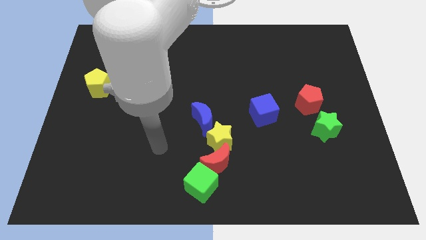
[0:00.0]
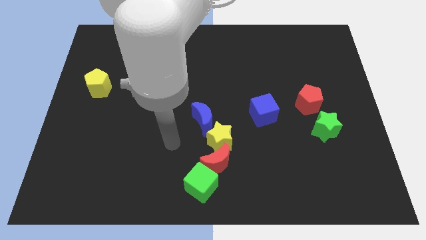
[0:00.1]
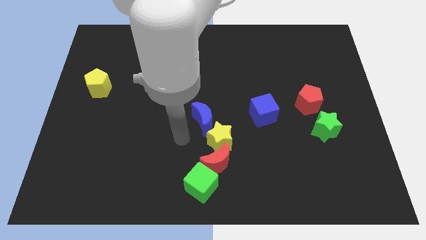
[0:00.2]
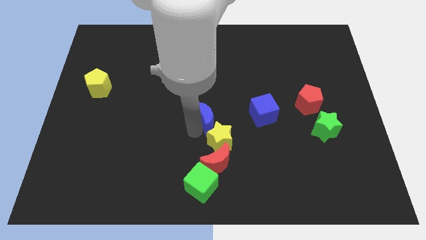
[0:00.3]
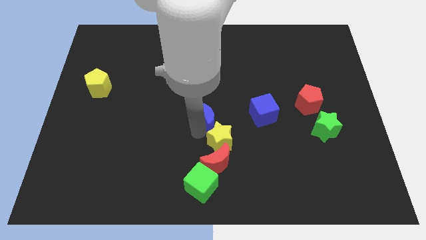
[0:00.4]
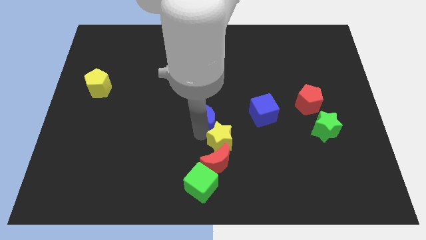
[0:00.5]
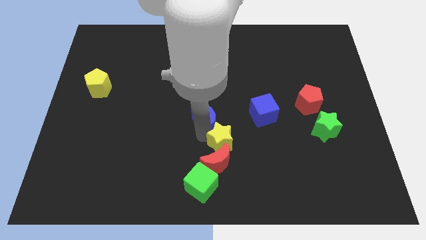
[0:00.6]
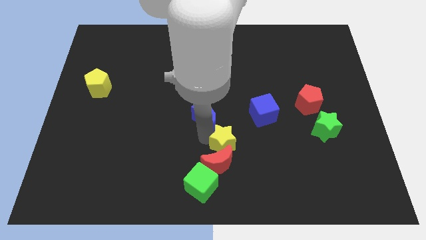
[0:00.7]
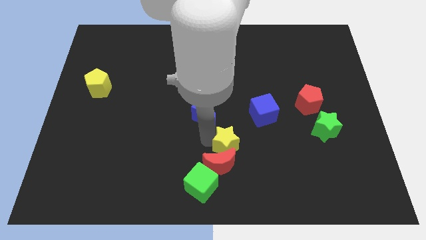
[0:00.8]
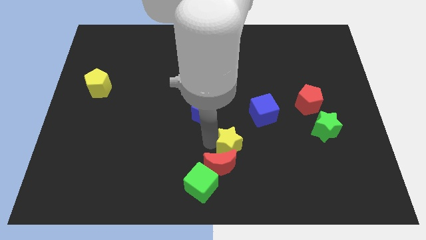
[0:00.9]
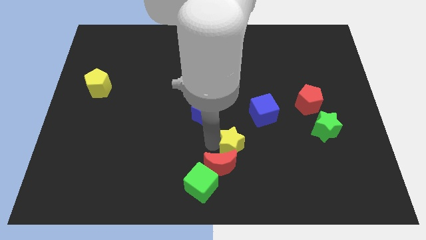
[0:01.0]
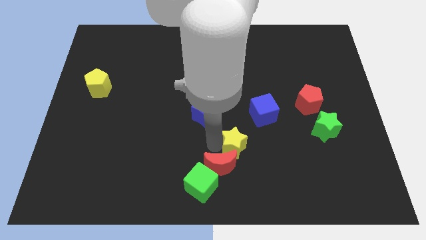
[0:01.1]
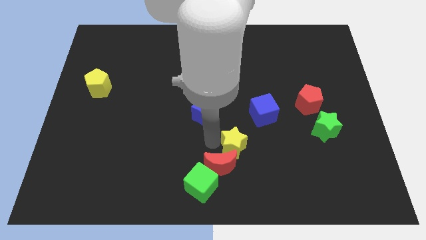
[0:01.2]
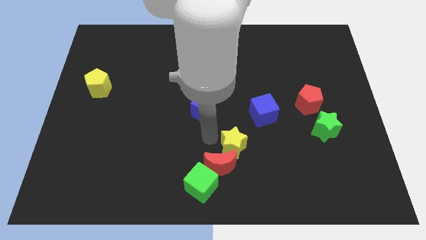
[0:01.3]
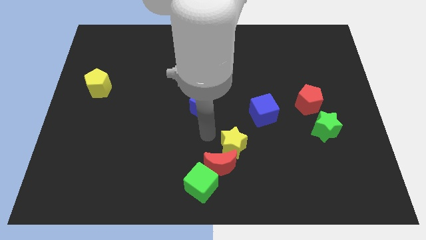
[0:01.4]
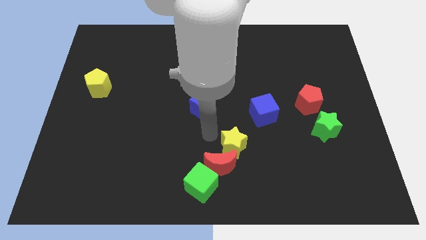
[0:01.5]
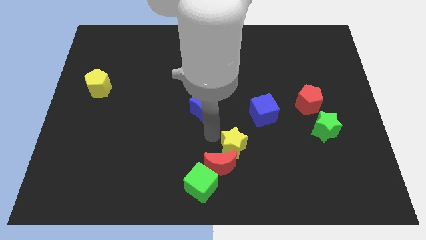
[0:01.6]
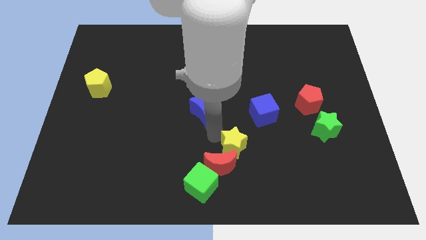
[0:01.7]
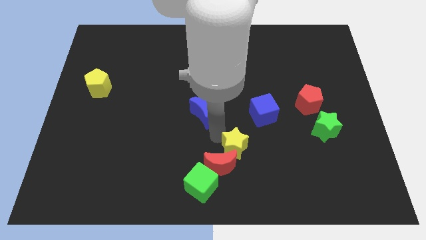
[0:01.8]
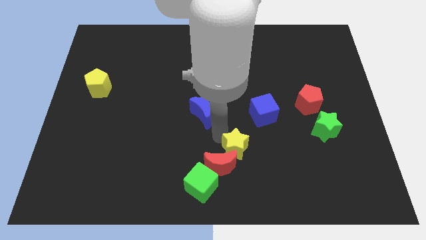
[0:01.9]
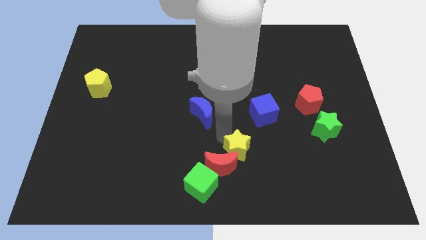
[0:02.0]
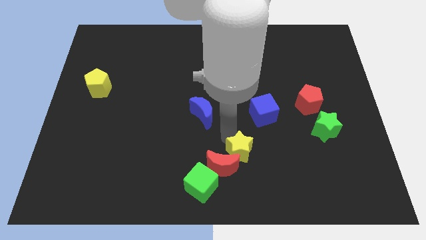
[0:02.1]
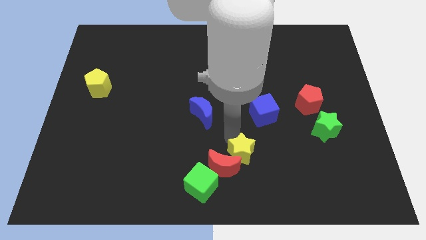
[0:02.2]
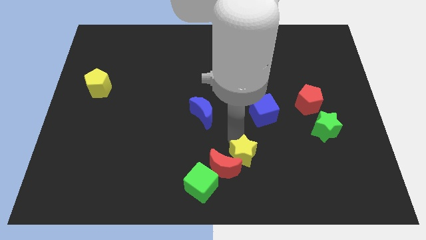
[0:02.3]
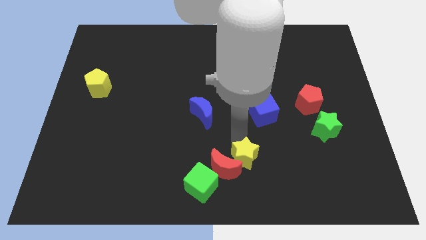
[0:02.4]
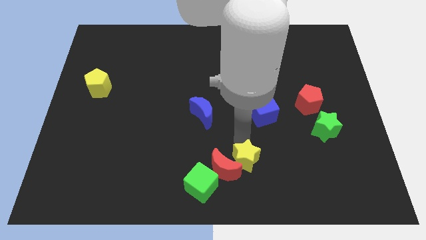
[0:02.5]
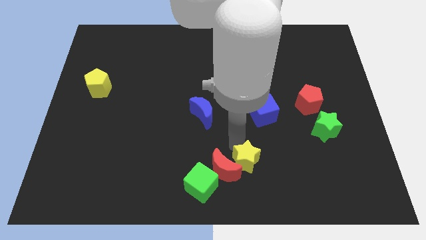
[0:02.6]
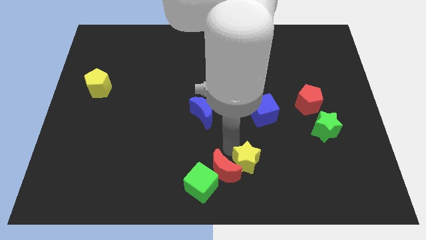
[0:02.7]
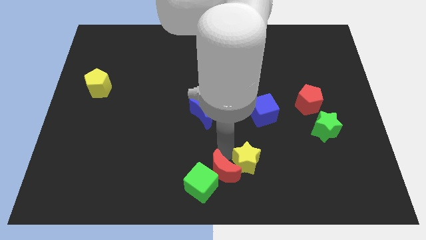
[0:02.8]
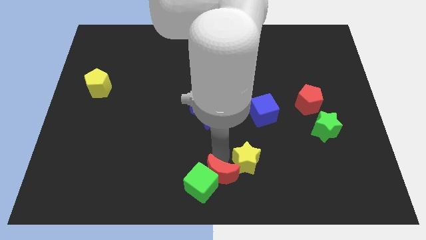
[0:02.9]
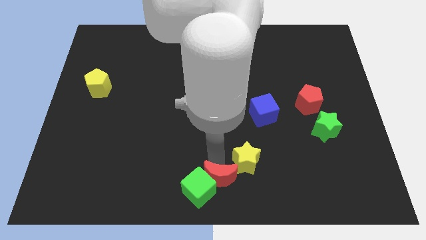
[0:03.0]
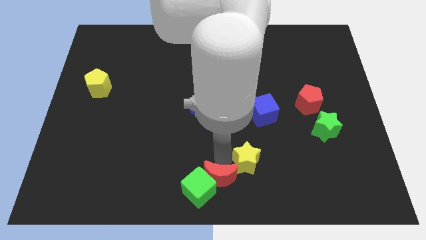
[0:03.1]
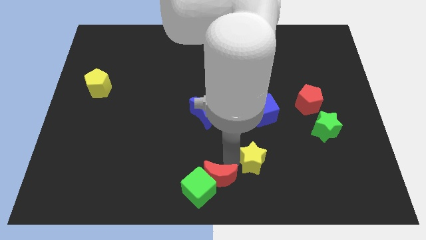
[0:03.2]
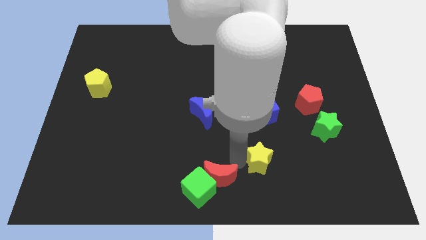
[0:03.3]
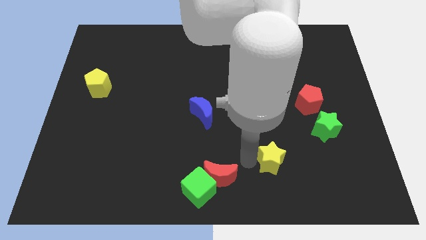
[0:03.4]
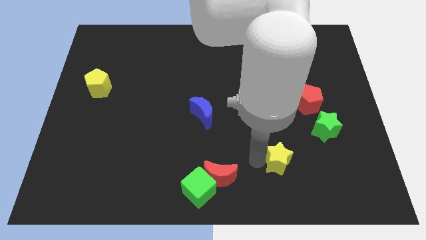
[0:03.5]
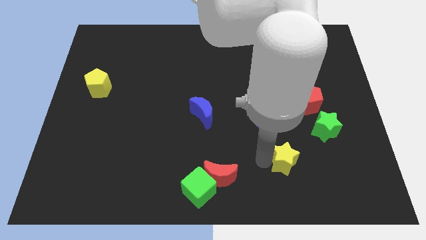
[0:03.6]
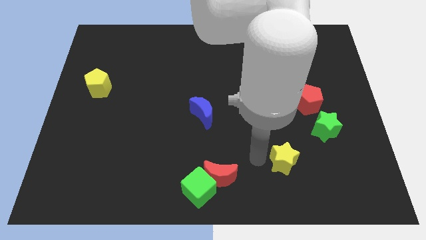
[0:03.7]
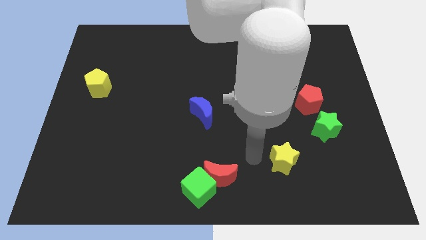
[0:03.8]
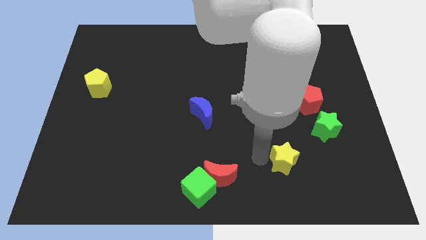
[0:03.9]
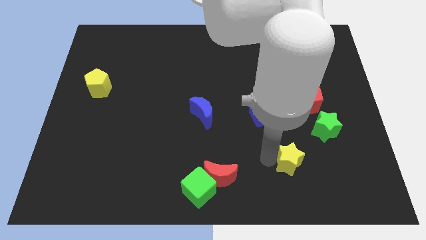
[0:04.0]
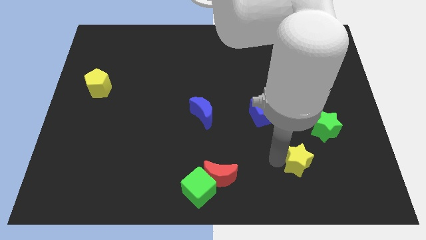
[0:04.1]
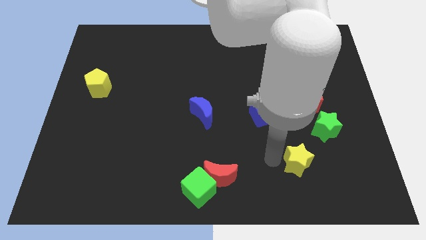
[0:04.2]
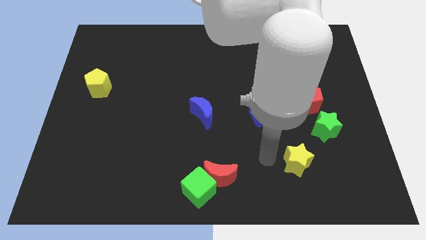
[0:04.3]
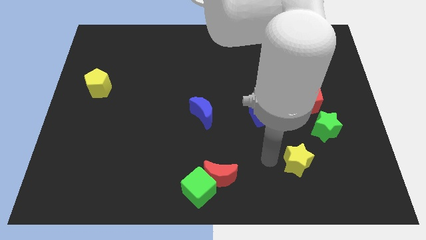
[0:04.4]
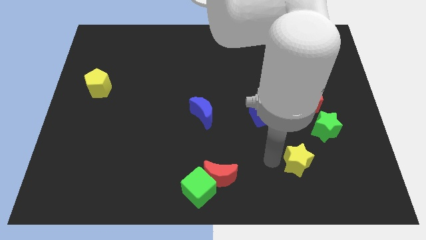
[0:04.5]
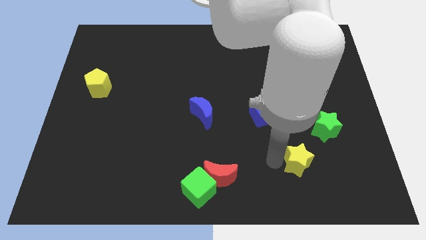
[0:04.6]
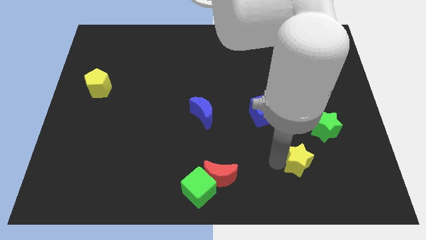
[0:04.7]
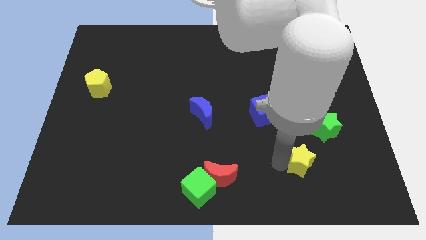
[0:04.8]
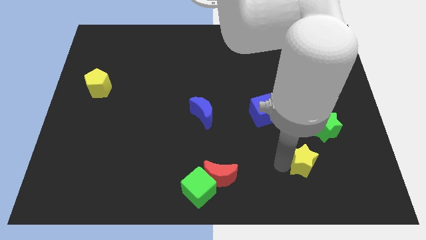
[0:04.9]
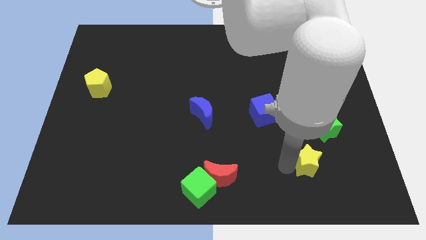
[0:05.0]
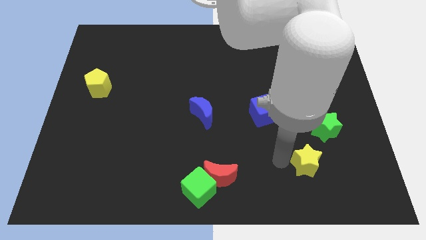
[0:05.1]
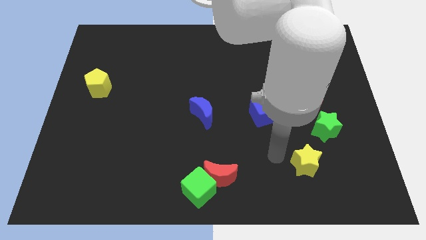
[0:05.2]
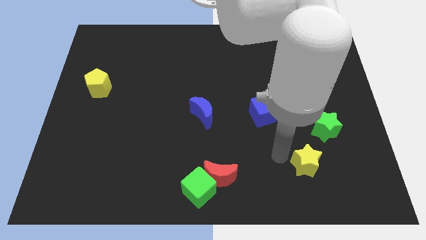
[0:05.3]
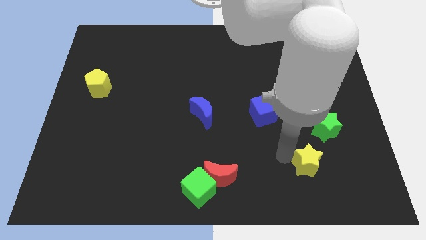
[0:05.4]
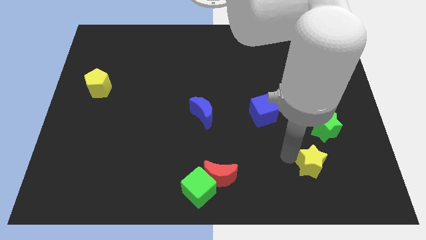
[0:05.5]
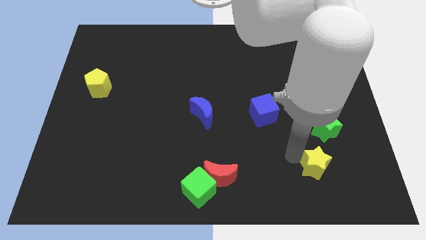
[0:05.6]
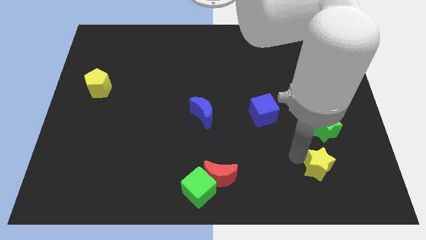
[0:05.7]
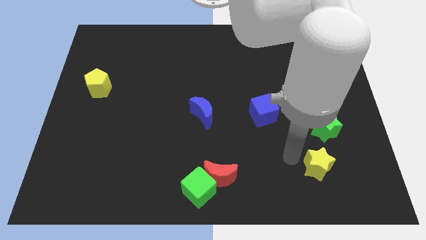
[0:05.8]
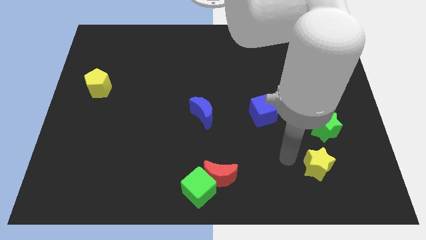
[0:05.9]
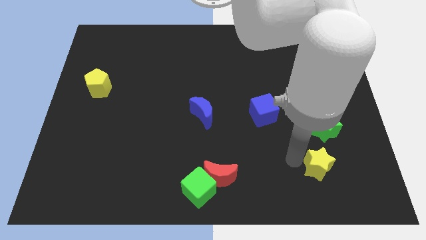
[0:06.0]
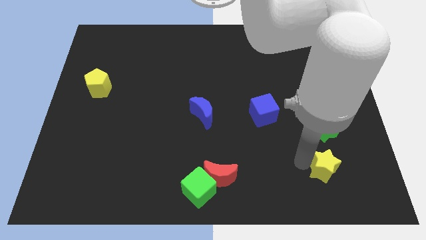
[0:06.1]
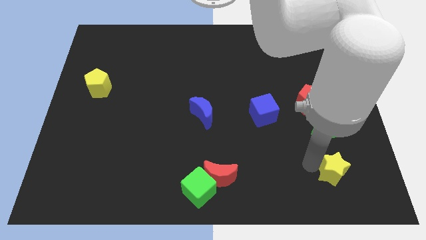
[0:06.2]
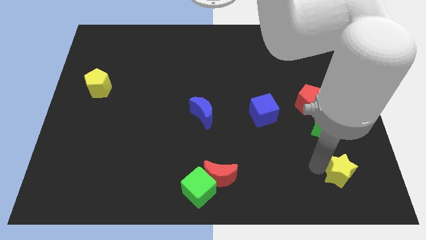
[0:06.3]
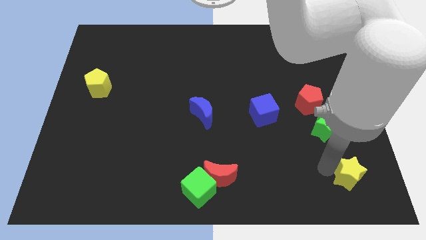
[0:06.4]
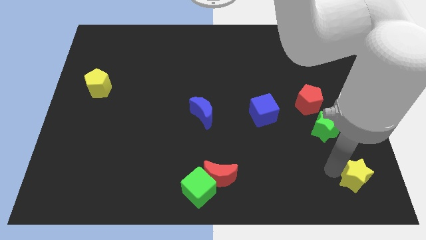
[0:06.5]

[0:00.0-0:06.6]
put the yellow star to the lower right corner
